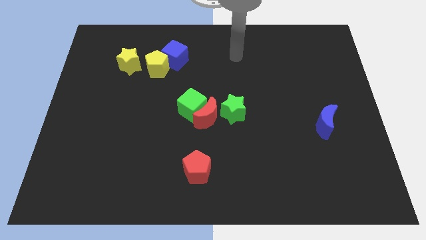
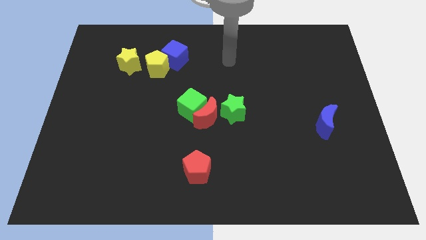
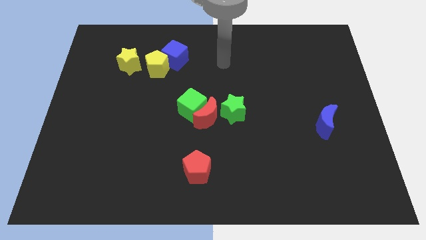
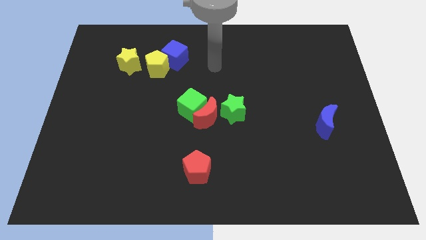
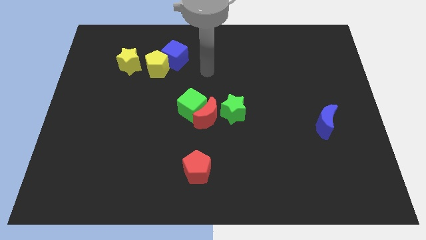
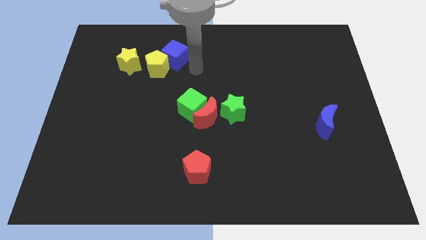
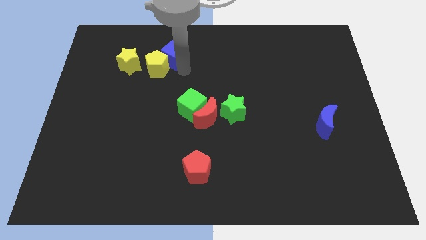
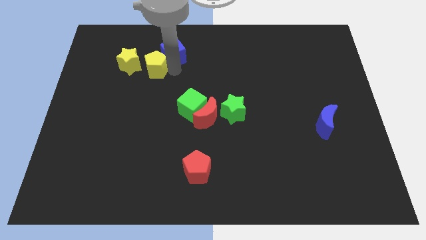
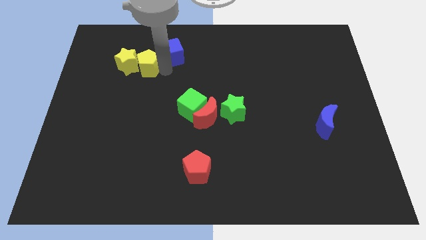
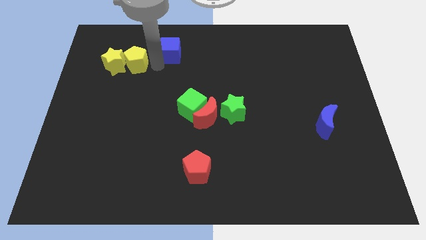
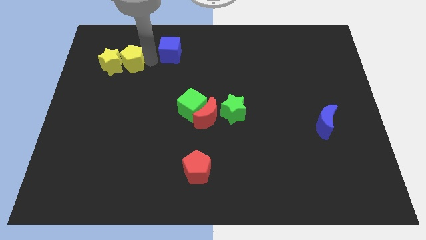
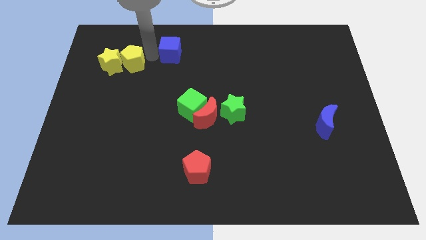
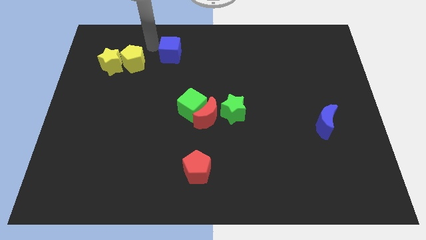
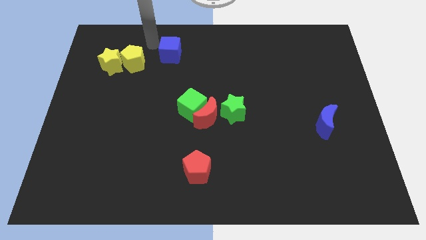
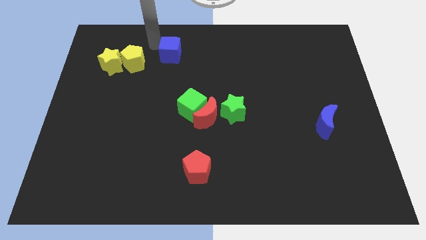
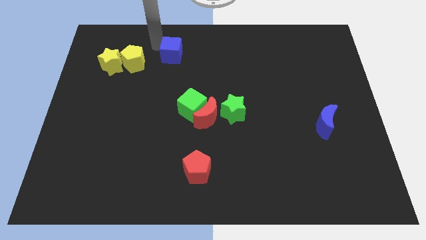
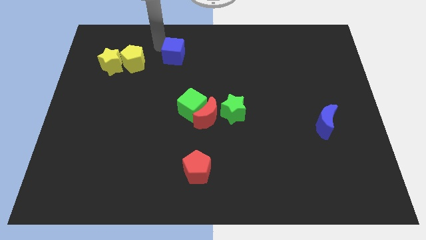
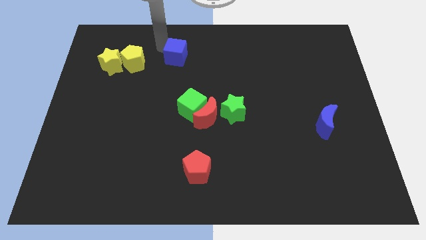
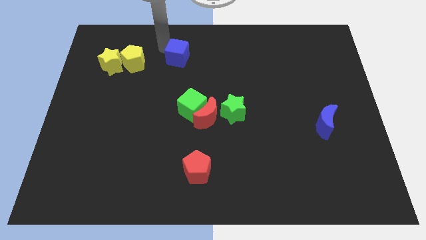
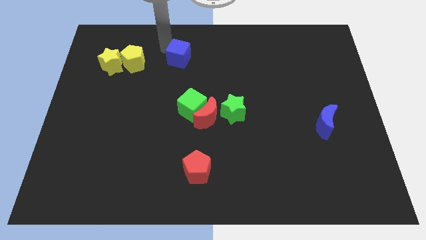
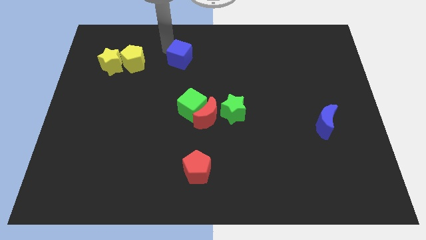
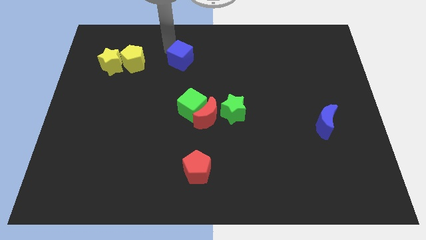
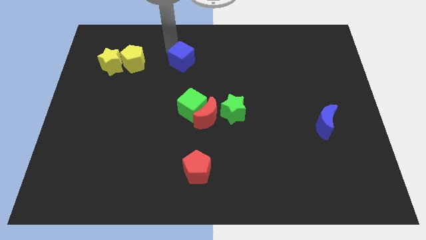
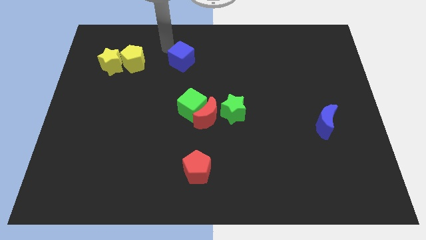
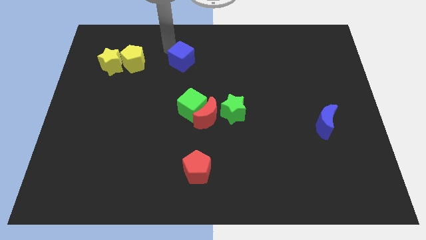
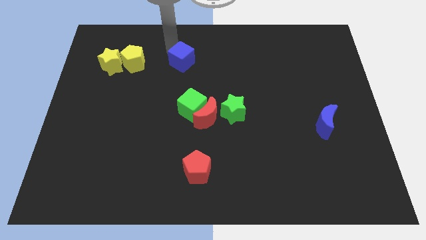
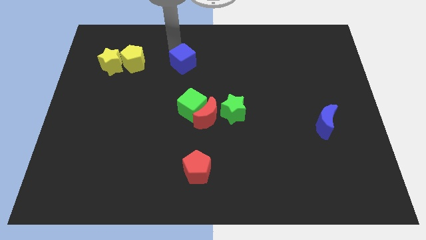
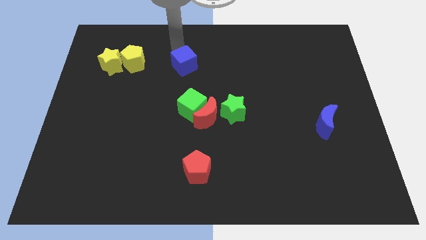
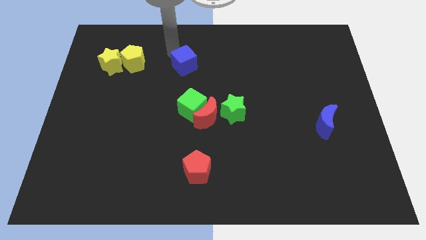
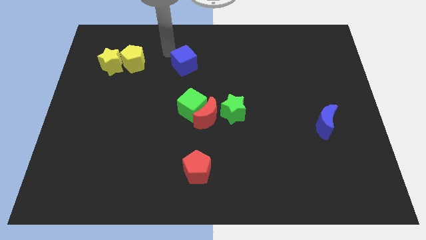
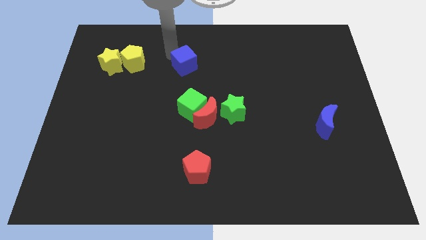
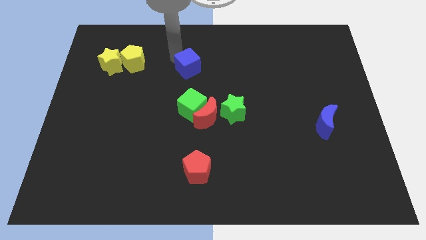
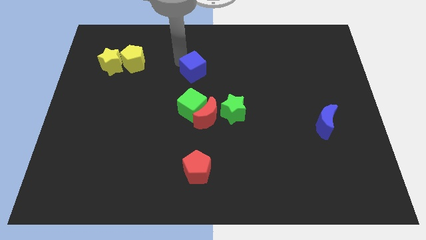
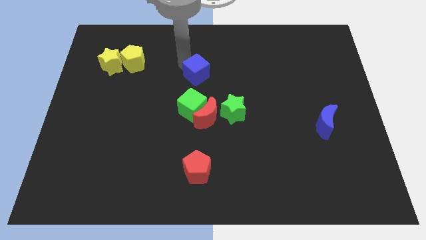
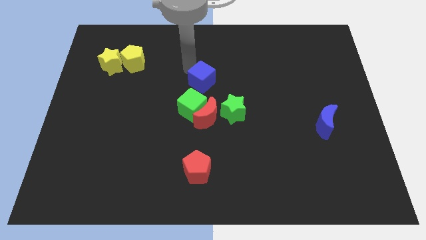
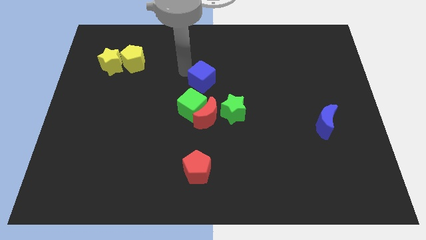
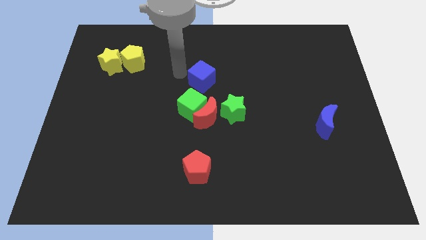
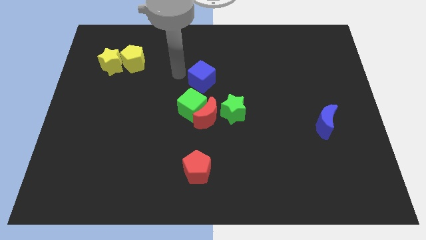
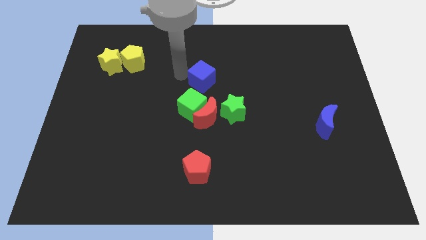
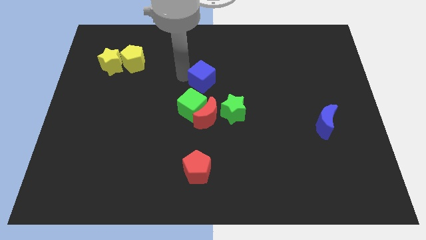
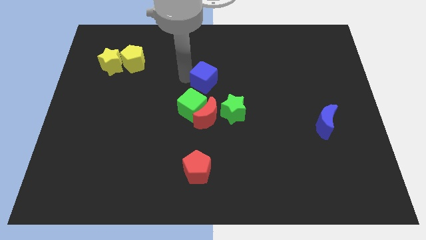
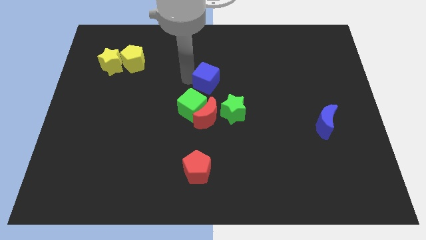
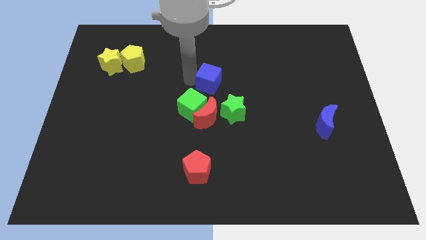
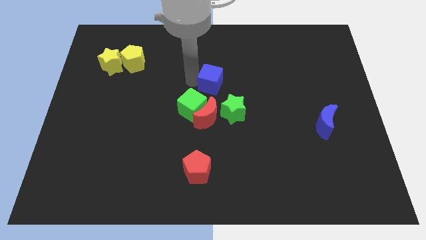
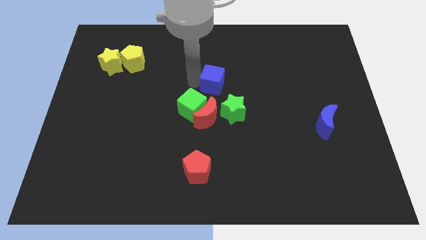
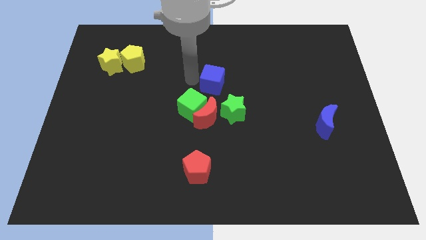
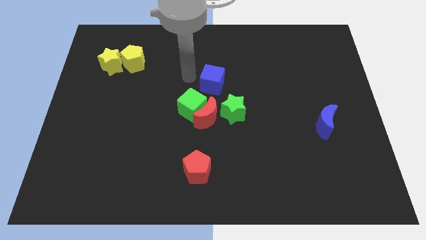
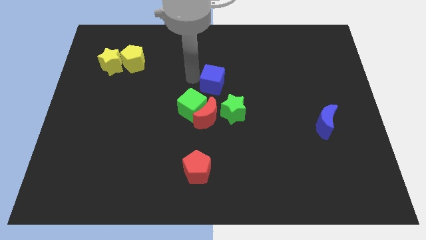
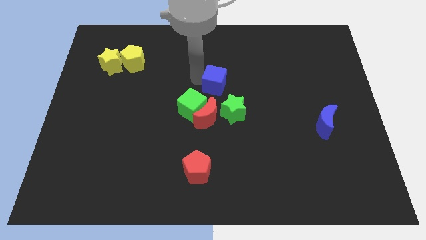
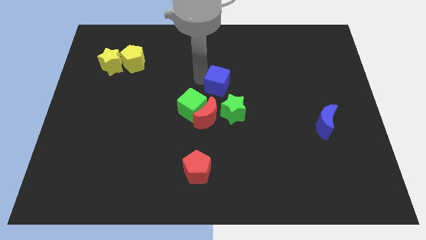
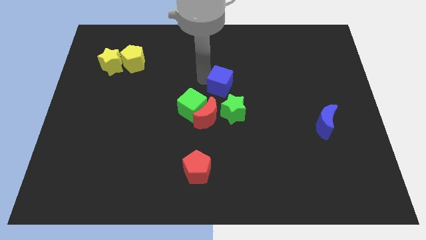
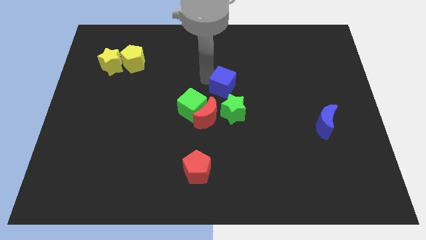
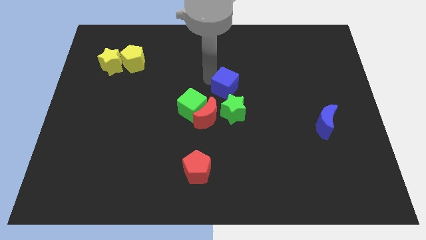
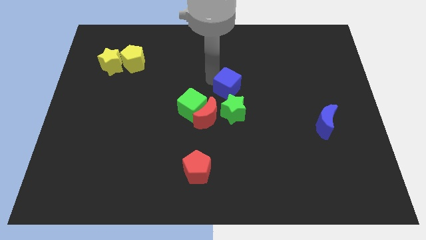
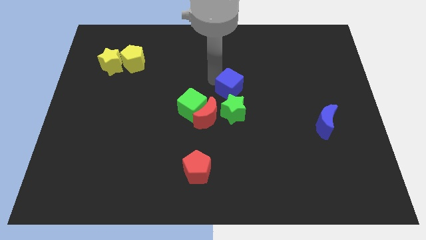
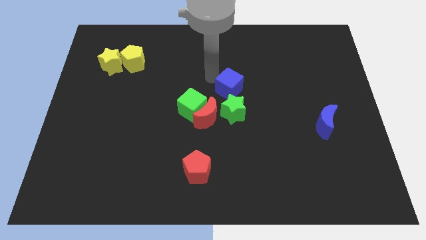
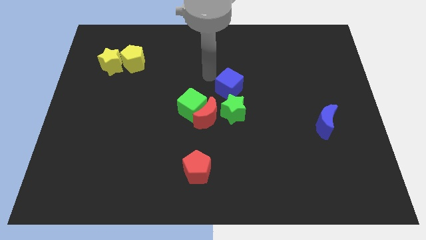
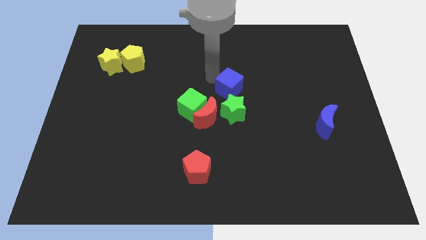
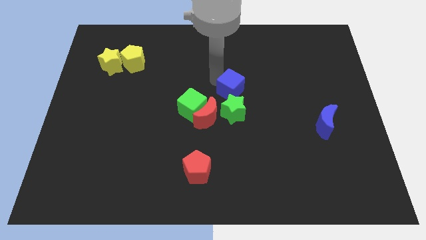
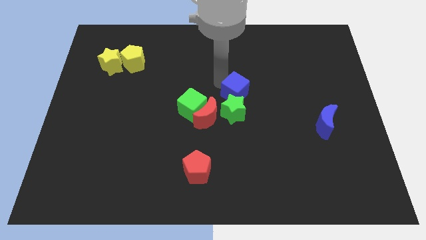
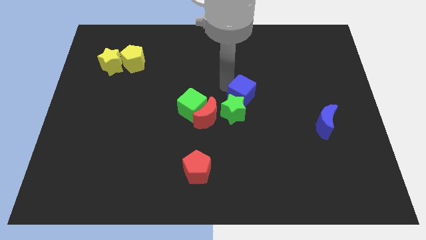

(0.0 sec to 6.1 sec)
move the blue cube downwards and to the right

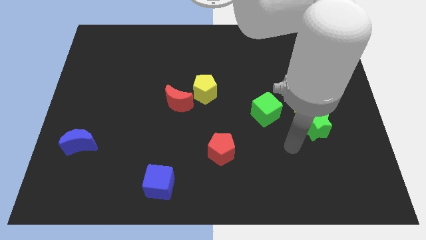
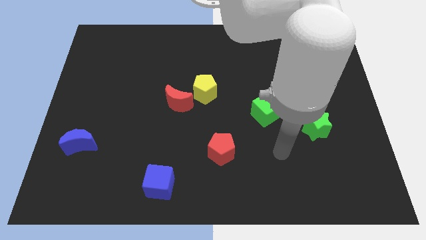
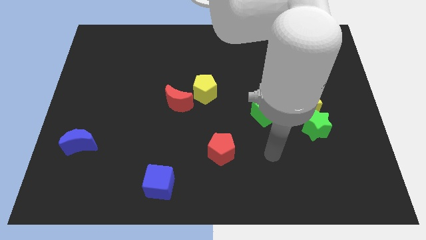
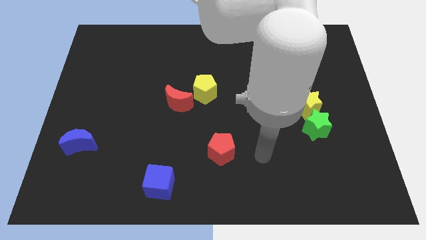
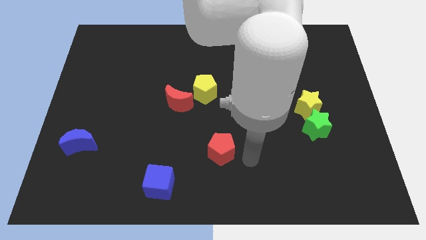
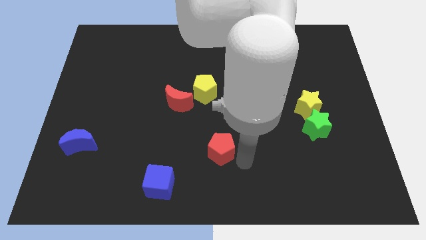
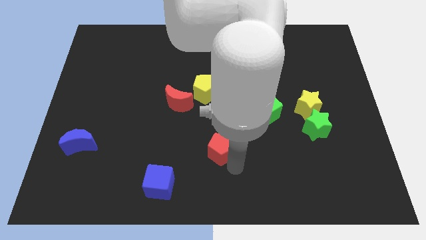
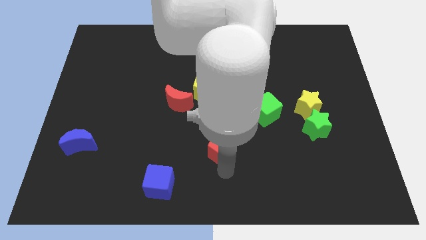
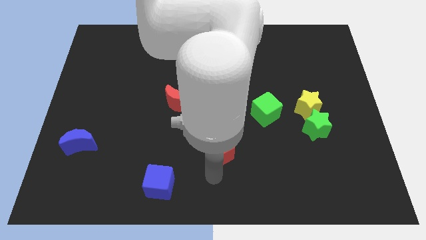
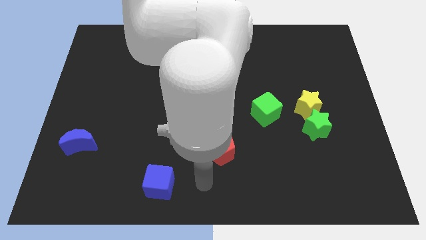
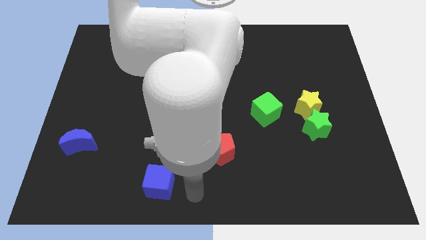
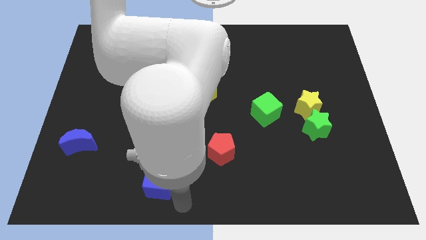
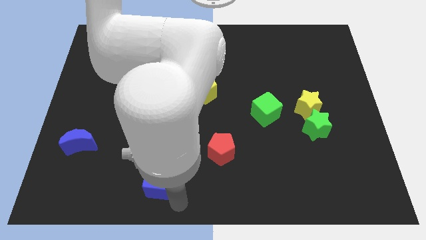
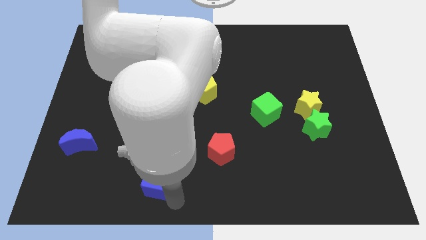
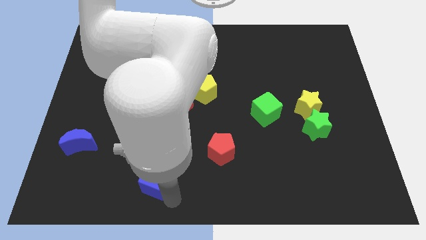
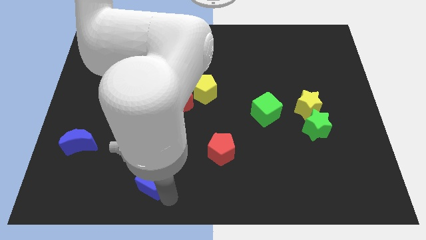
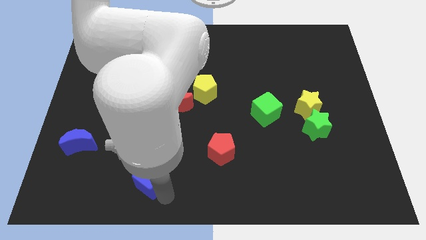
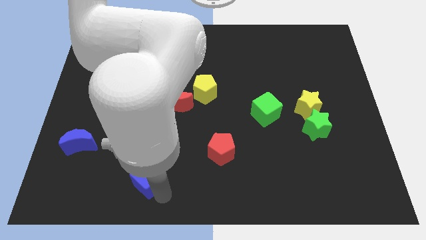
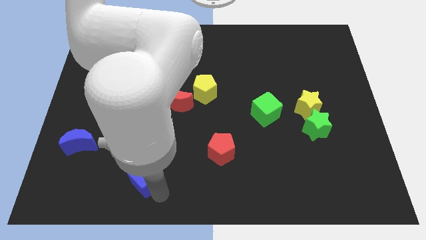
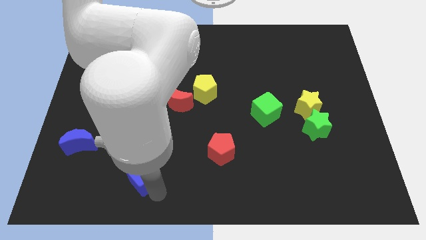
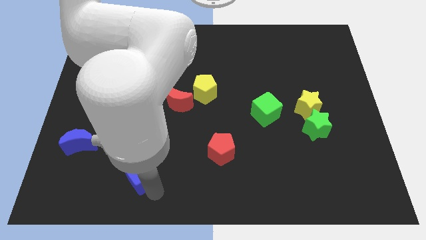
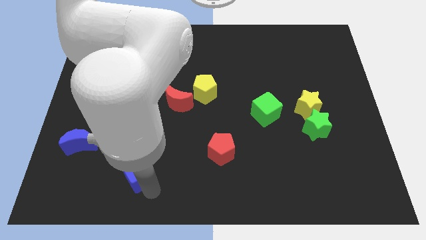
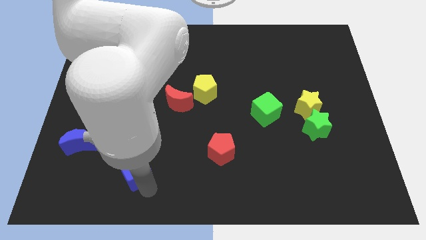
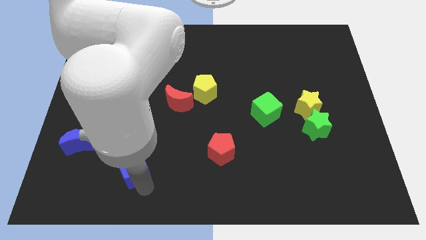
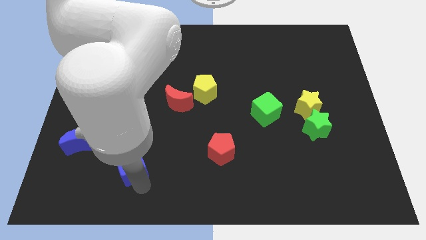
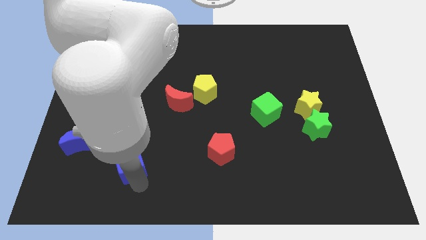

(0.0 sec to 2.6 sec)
slide the blue cube slightly upwards and to the left diagonally
